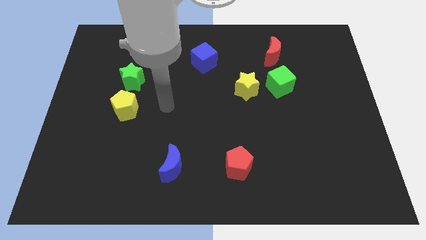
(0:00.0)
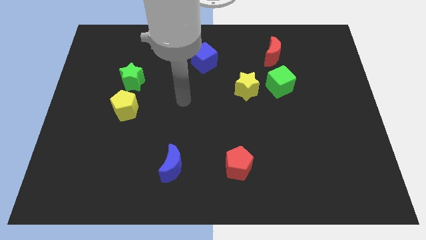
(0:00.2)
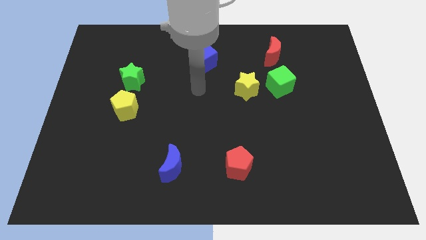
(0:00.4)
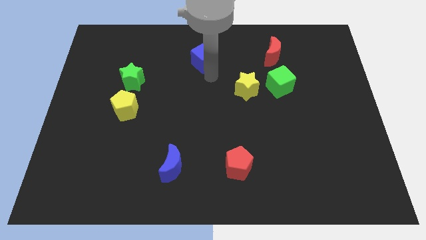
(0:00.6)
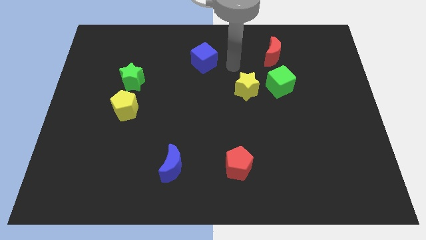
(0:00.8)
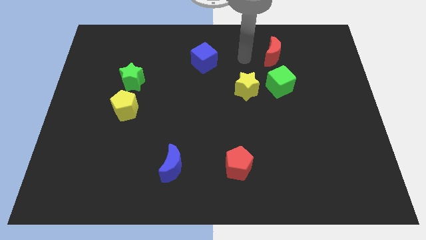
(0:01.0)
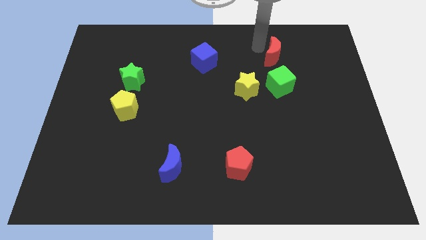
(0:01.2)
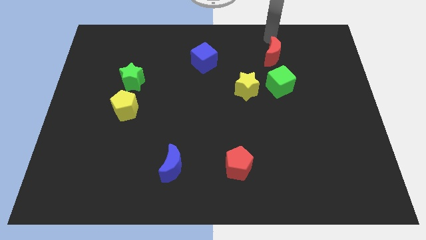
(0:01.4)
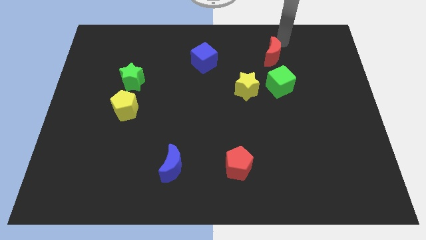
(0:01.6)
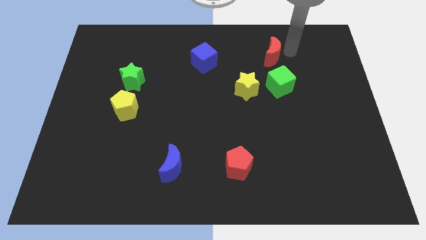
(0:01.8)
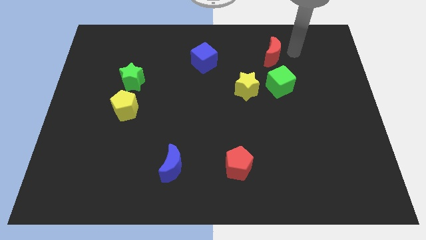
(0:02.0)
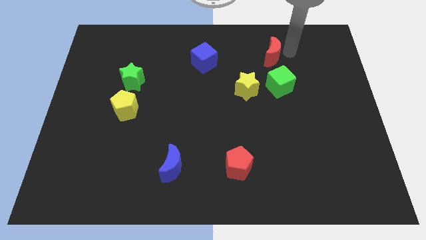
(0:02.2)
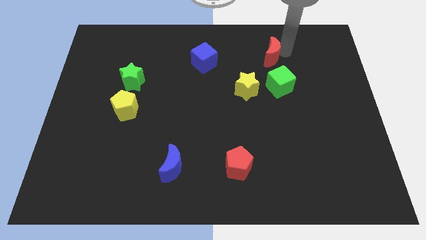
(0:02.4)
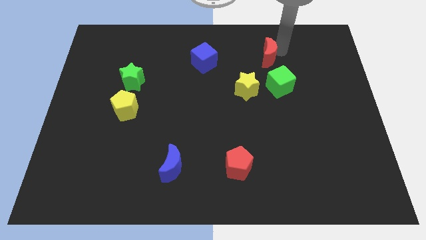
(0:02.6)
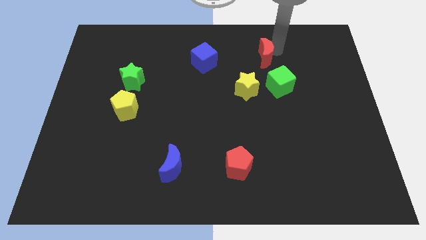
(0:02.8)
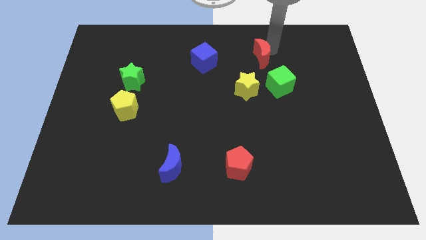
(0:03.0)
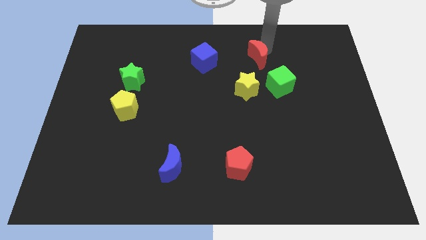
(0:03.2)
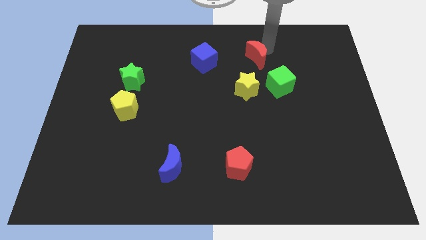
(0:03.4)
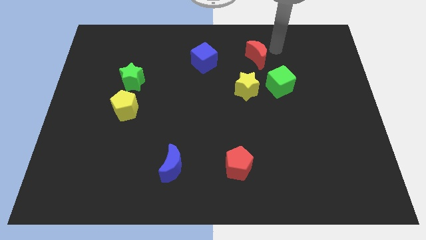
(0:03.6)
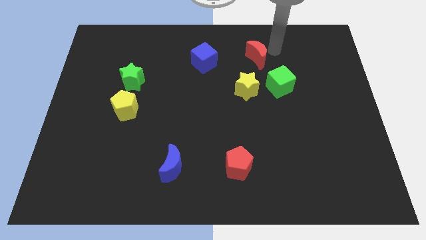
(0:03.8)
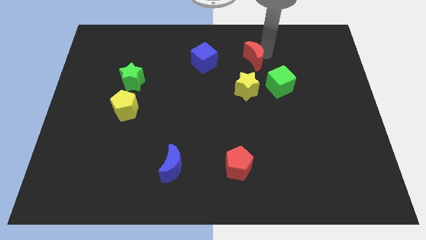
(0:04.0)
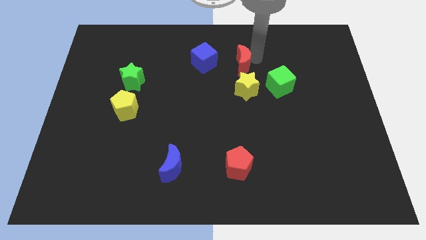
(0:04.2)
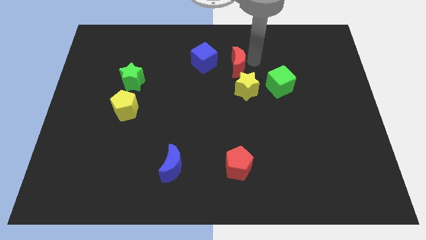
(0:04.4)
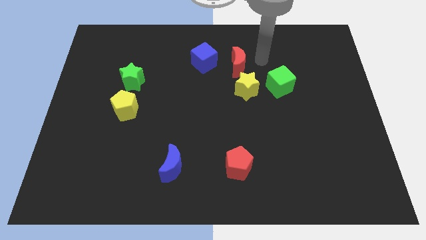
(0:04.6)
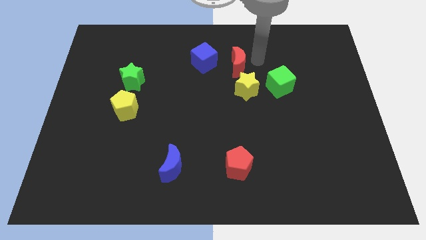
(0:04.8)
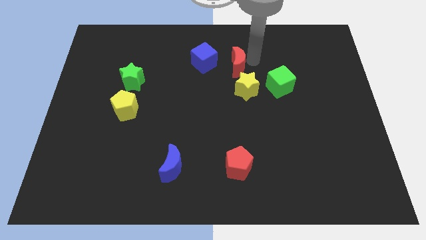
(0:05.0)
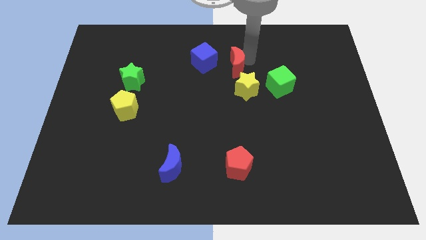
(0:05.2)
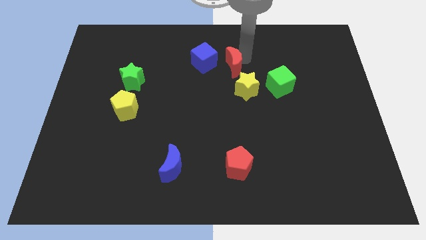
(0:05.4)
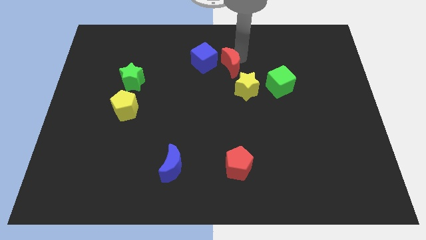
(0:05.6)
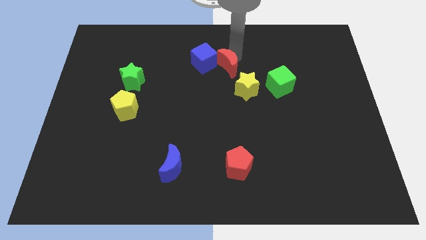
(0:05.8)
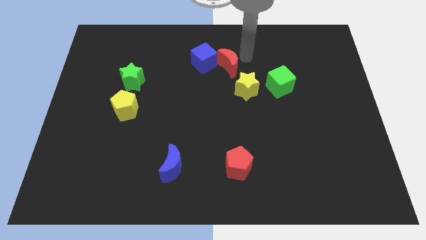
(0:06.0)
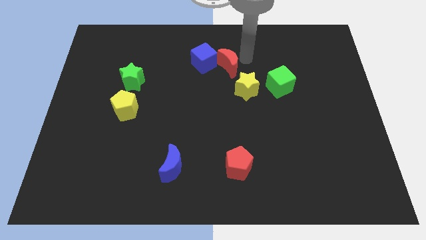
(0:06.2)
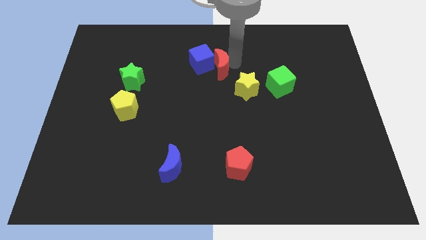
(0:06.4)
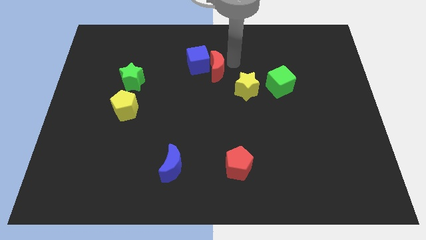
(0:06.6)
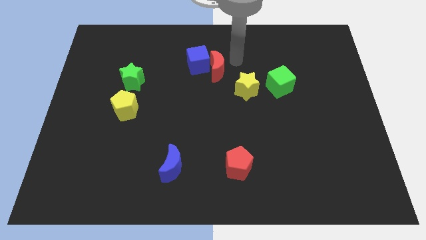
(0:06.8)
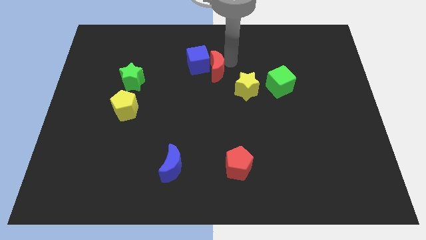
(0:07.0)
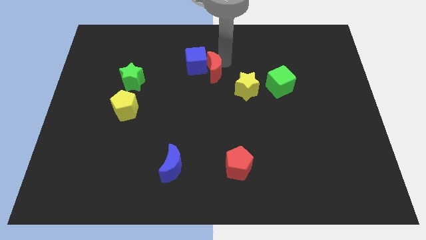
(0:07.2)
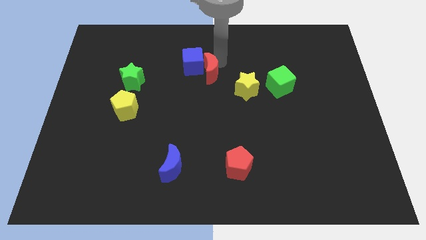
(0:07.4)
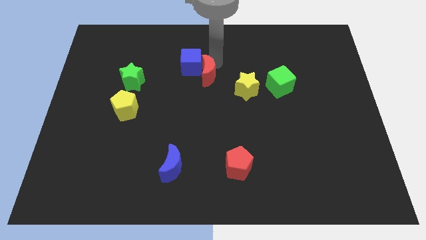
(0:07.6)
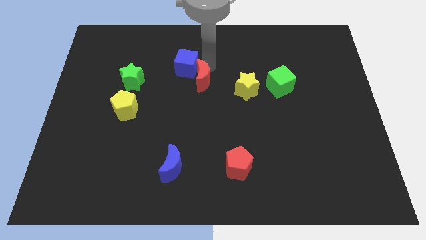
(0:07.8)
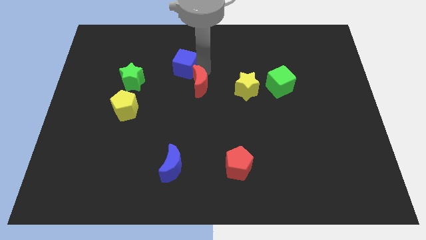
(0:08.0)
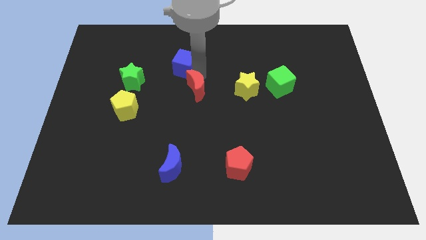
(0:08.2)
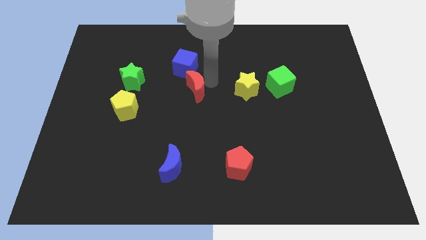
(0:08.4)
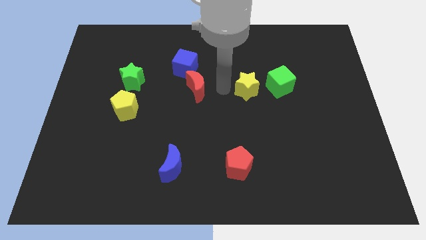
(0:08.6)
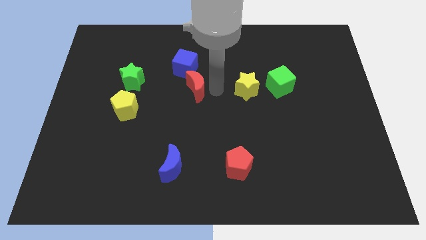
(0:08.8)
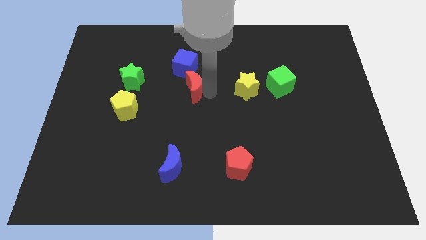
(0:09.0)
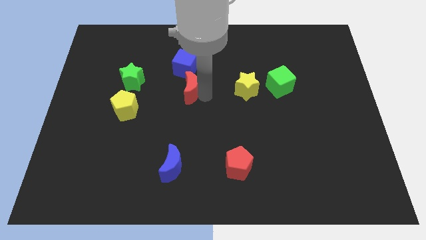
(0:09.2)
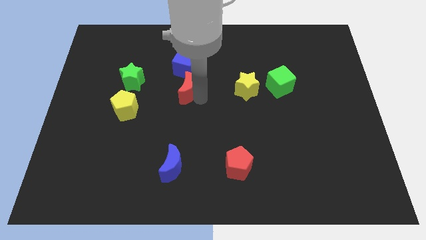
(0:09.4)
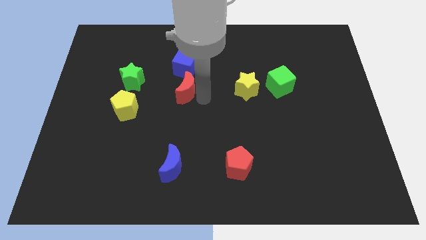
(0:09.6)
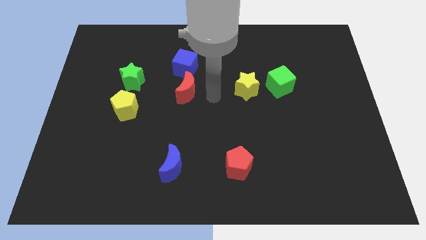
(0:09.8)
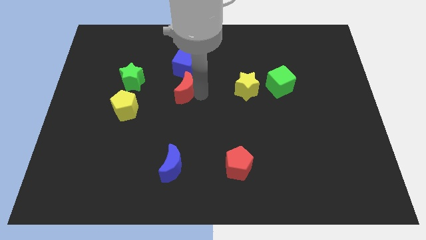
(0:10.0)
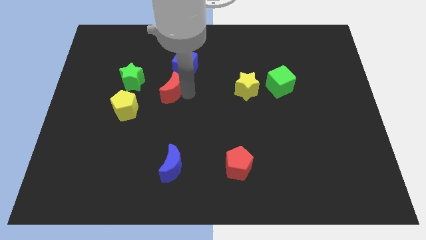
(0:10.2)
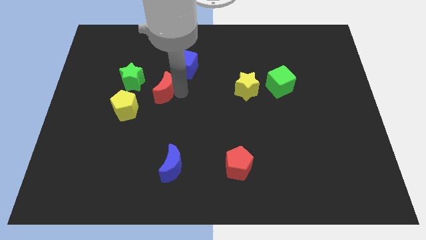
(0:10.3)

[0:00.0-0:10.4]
move the red moon to the top right side of the yellow pentagon

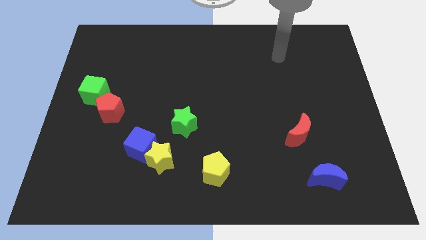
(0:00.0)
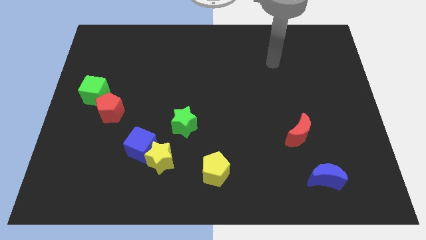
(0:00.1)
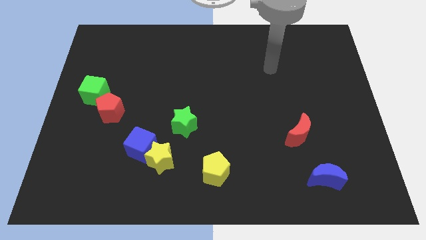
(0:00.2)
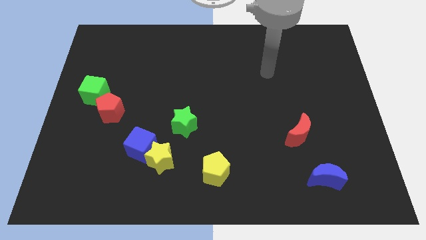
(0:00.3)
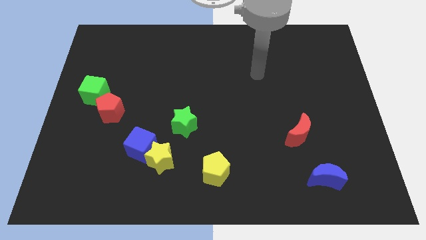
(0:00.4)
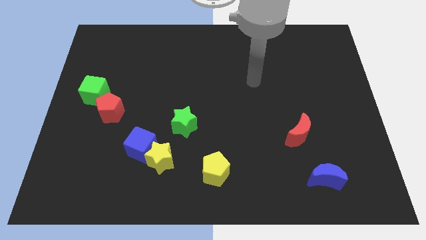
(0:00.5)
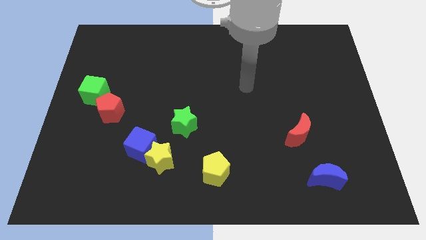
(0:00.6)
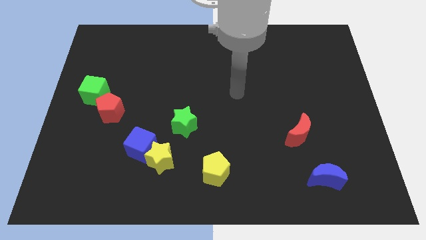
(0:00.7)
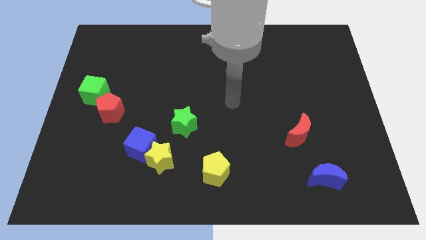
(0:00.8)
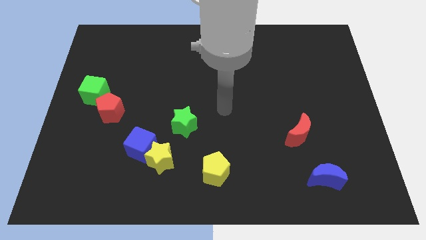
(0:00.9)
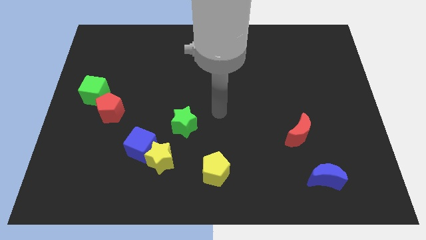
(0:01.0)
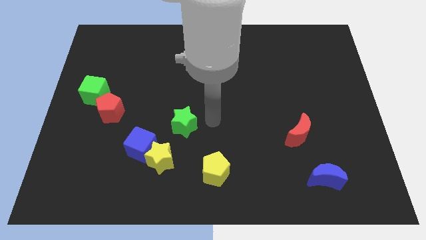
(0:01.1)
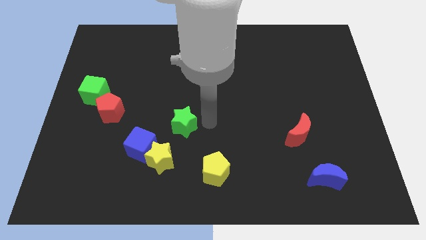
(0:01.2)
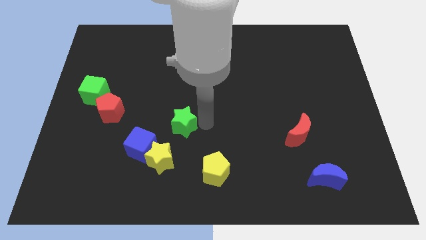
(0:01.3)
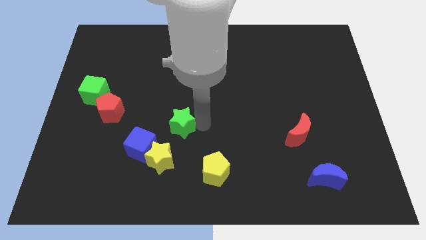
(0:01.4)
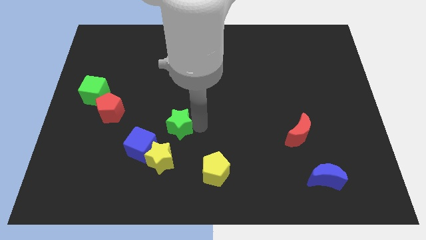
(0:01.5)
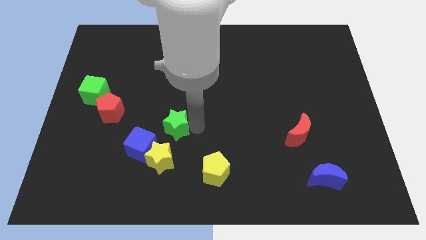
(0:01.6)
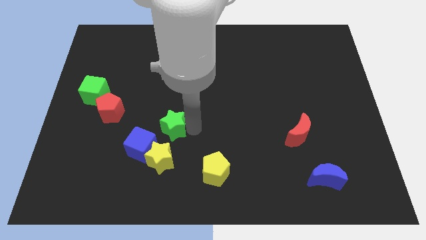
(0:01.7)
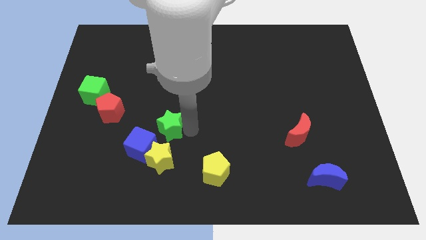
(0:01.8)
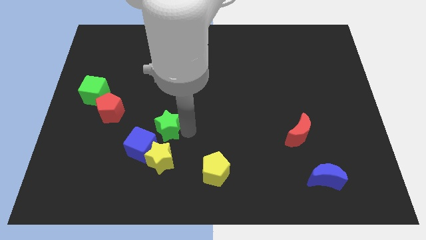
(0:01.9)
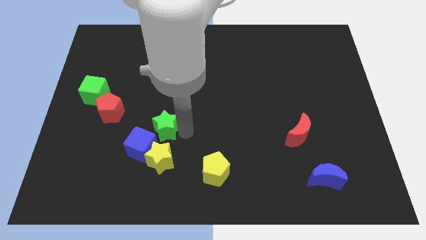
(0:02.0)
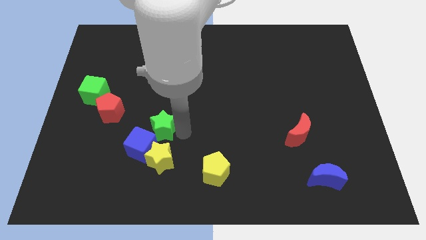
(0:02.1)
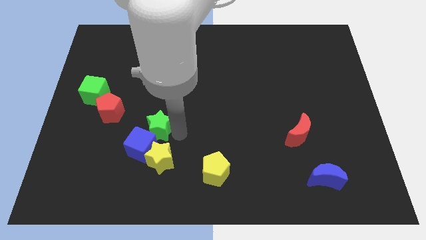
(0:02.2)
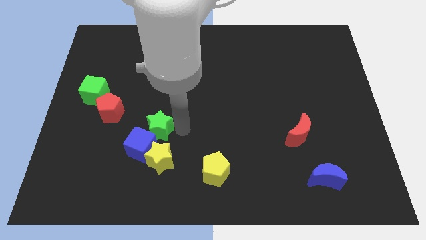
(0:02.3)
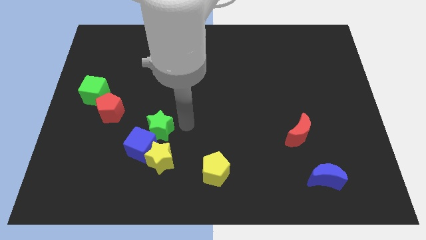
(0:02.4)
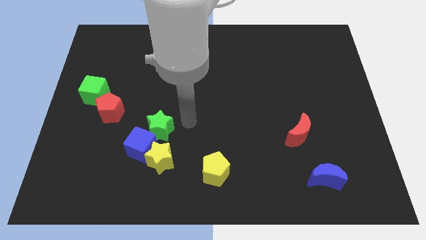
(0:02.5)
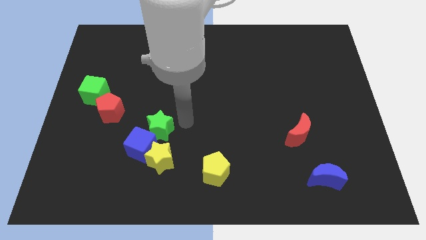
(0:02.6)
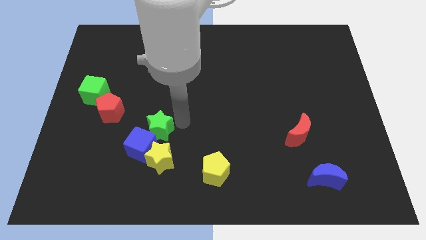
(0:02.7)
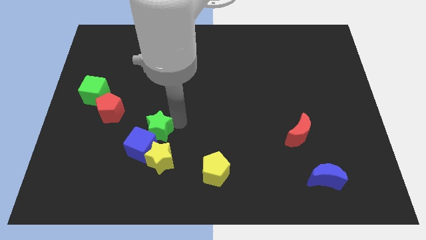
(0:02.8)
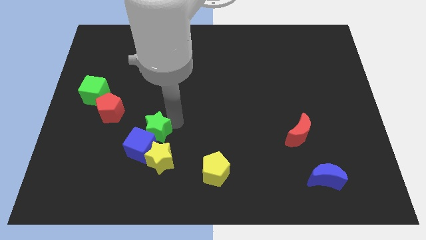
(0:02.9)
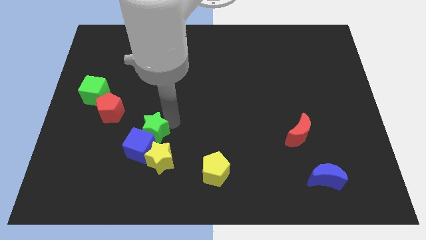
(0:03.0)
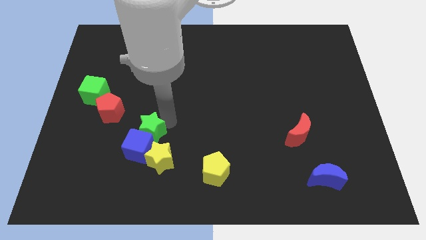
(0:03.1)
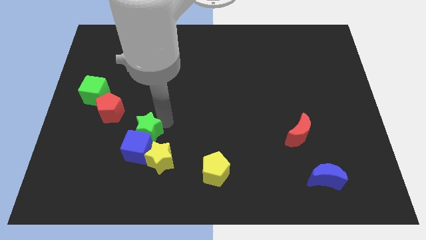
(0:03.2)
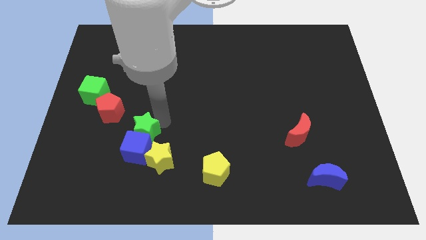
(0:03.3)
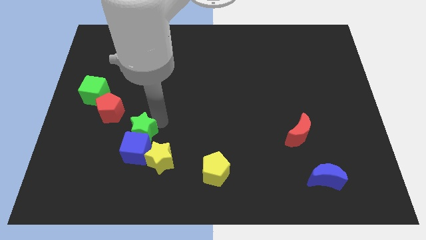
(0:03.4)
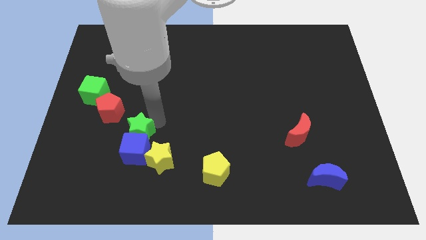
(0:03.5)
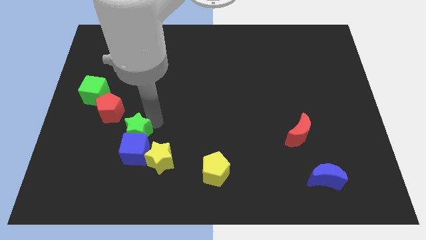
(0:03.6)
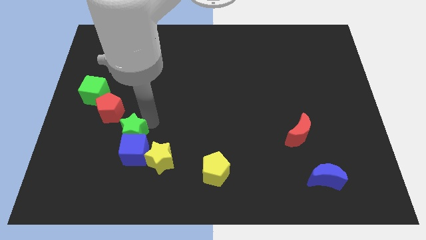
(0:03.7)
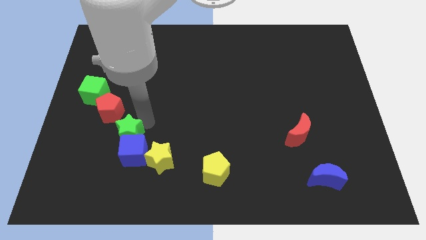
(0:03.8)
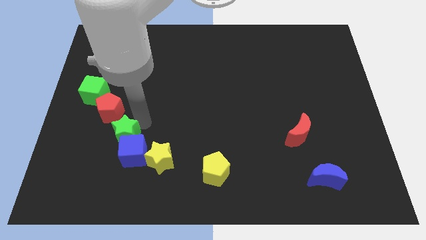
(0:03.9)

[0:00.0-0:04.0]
push the green star below the red pentagon
